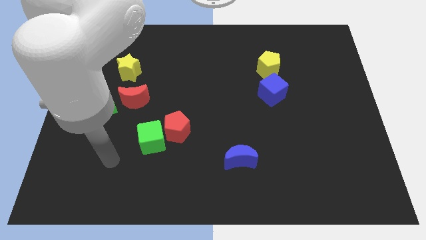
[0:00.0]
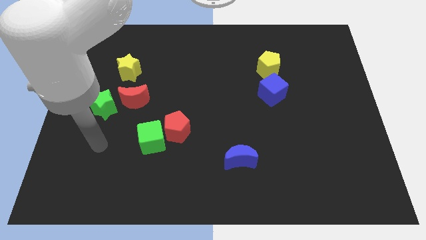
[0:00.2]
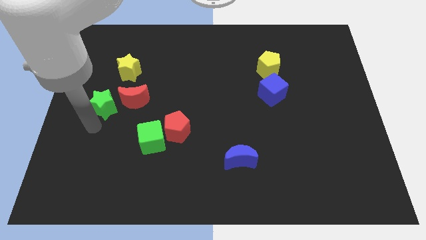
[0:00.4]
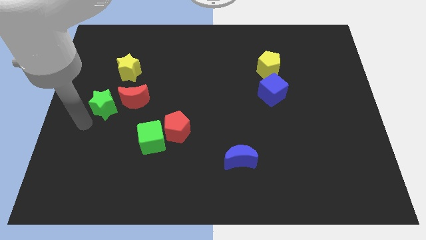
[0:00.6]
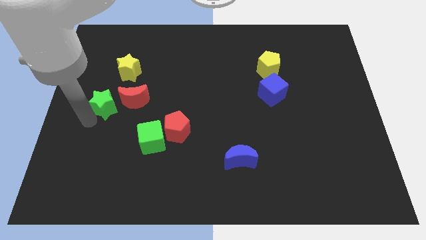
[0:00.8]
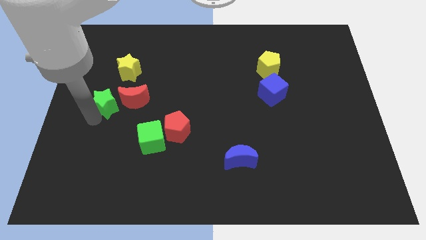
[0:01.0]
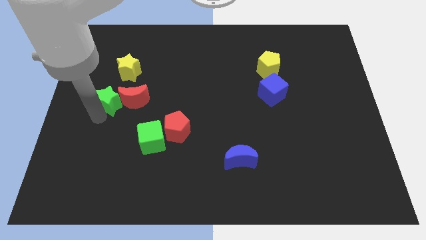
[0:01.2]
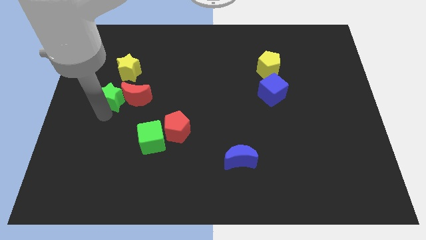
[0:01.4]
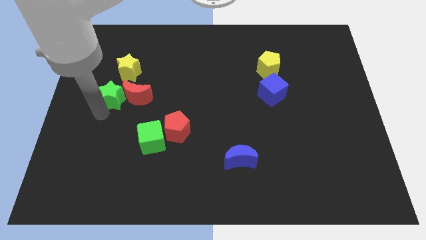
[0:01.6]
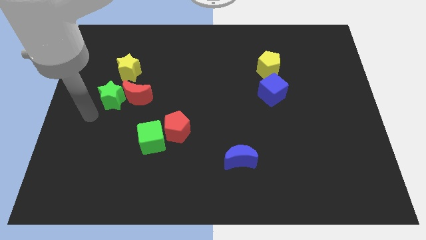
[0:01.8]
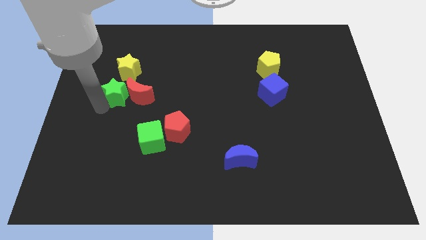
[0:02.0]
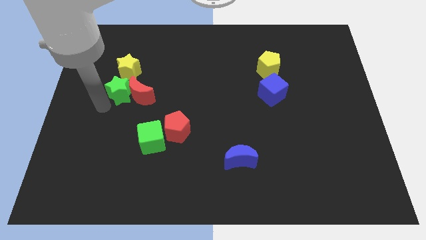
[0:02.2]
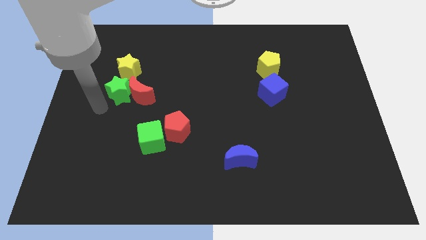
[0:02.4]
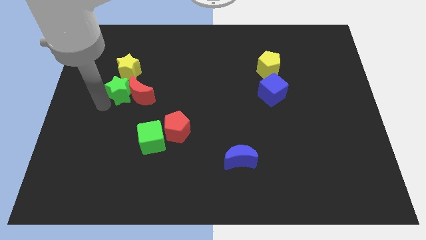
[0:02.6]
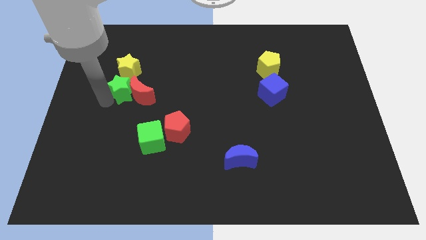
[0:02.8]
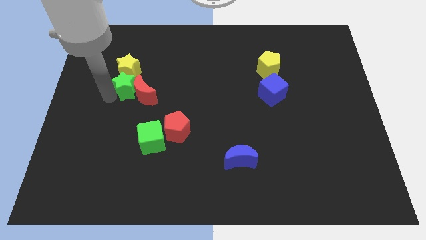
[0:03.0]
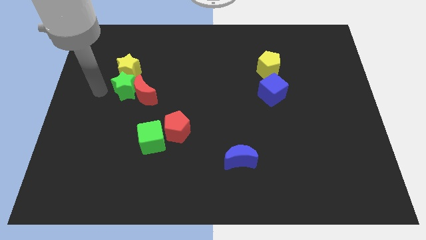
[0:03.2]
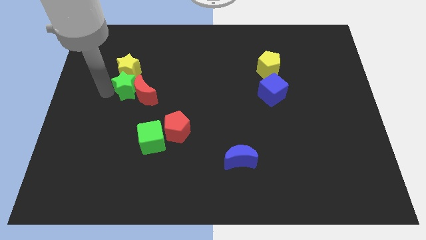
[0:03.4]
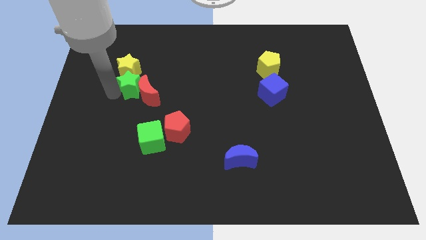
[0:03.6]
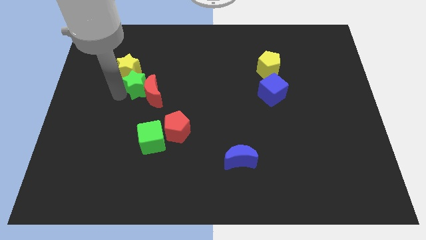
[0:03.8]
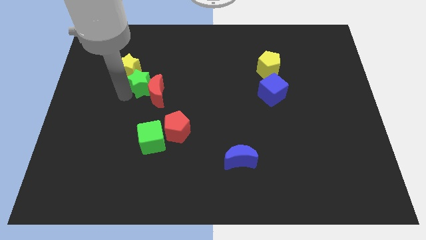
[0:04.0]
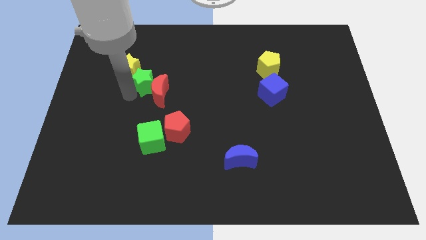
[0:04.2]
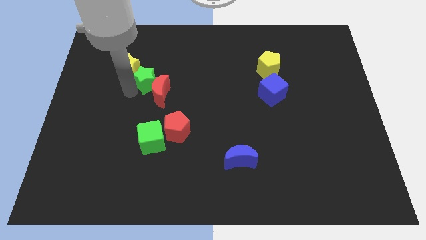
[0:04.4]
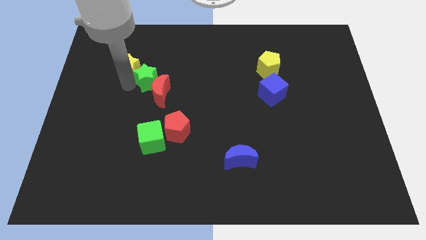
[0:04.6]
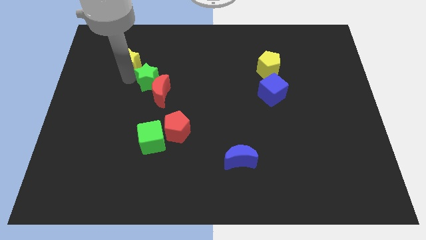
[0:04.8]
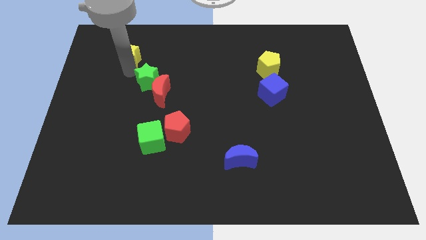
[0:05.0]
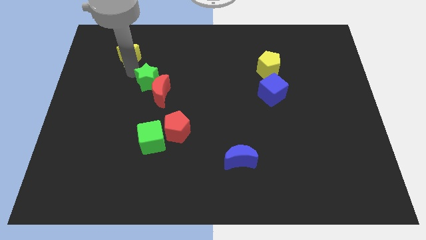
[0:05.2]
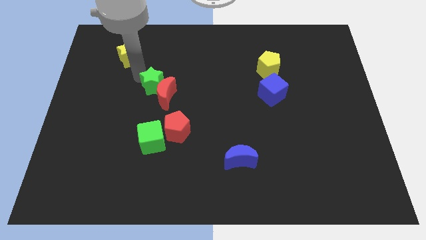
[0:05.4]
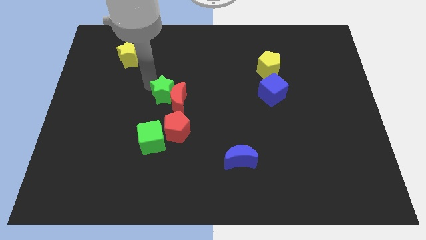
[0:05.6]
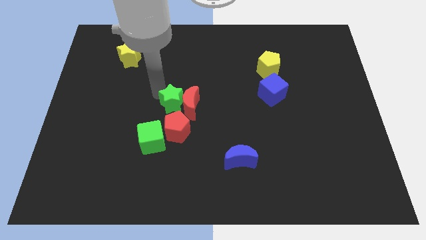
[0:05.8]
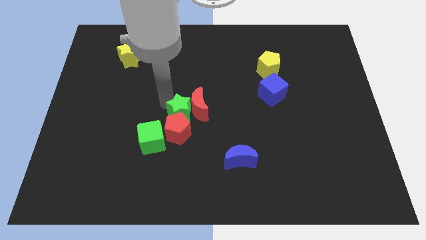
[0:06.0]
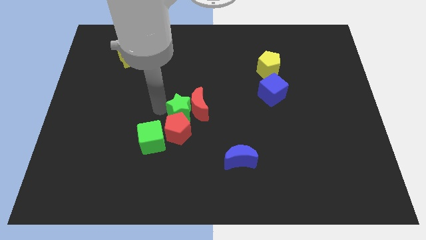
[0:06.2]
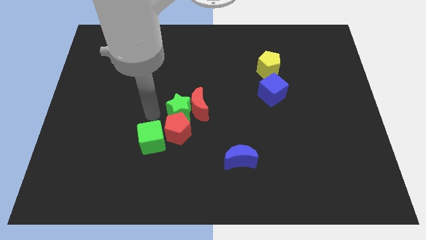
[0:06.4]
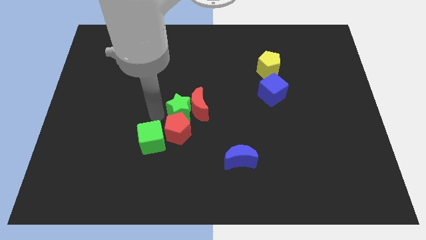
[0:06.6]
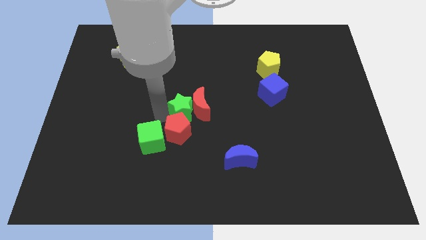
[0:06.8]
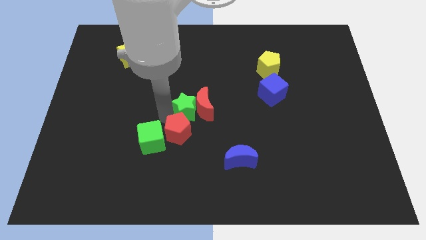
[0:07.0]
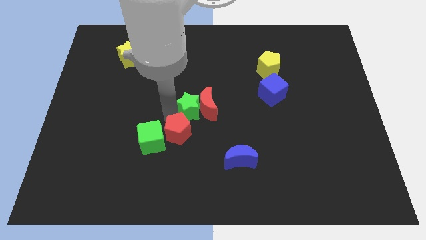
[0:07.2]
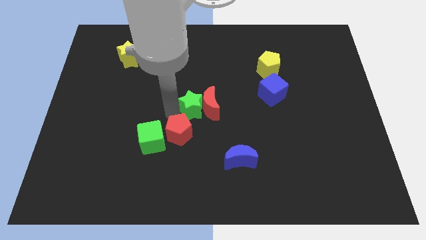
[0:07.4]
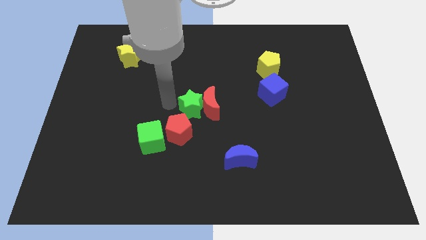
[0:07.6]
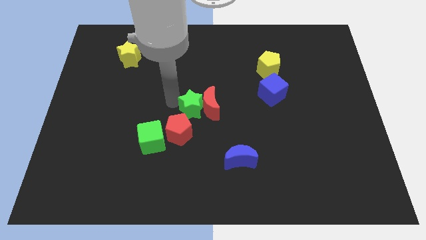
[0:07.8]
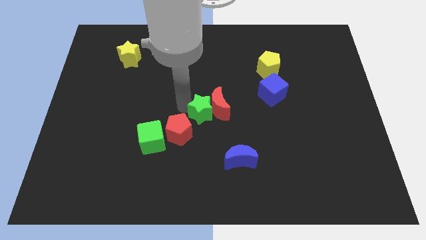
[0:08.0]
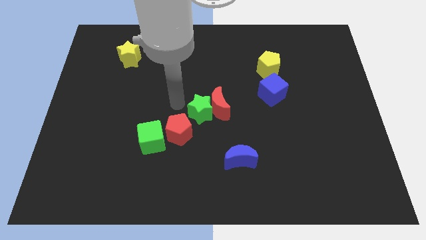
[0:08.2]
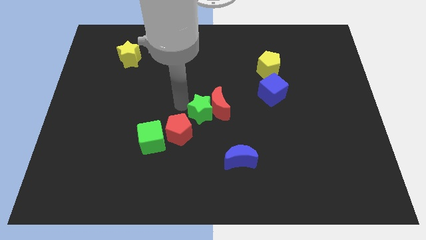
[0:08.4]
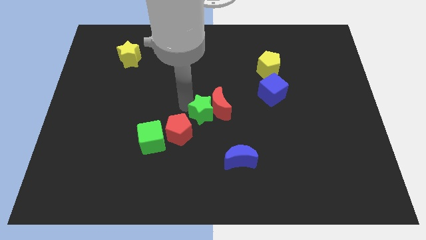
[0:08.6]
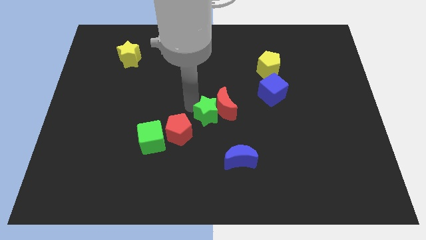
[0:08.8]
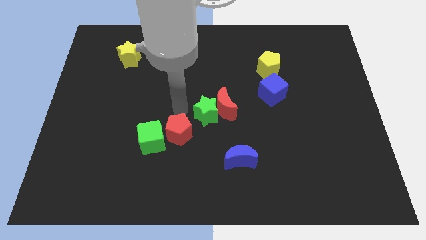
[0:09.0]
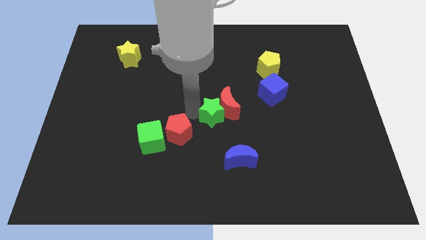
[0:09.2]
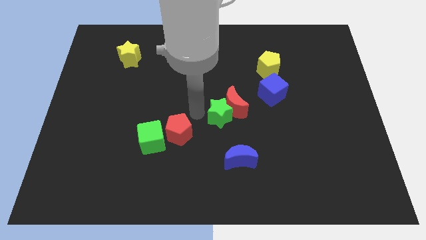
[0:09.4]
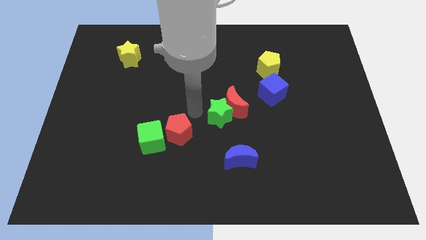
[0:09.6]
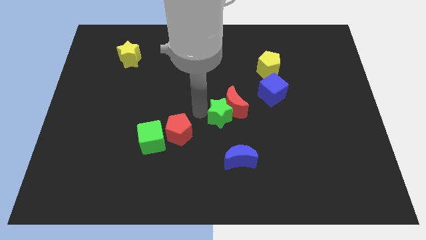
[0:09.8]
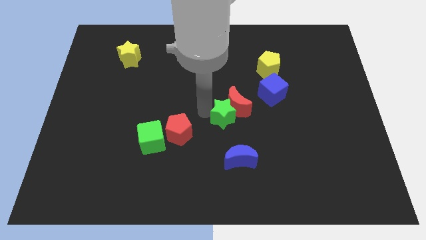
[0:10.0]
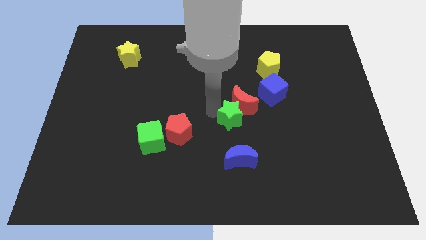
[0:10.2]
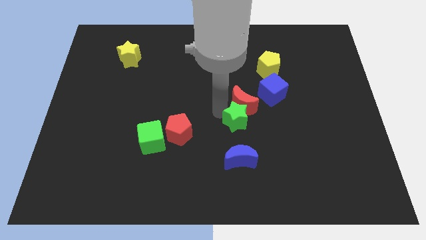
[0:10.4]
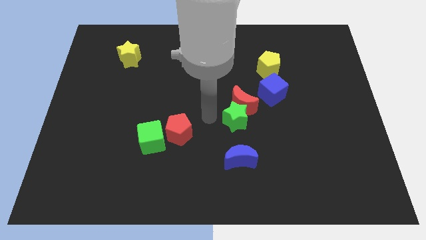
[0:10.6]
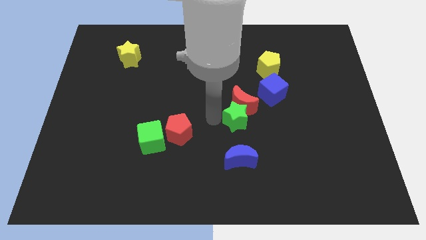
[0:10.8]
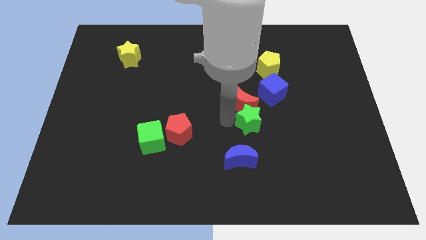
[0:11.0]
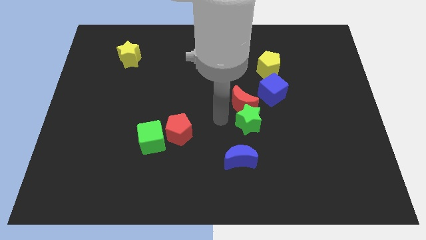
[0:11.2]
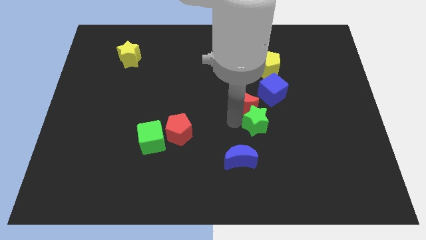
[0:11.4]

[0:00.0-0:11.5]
push the green star to the bottom of the blue cube
